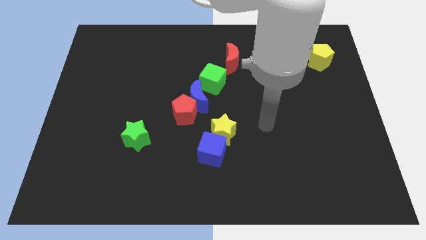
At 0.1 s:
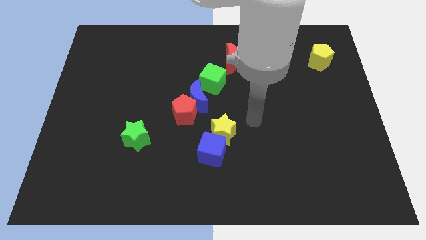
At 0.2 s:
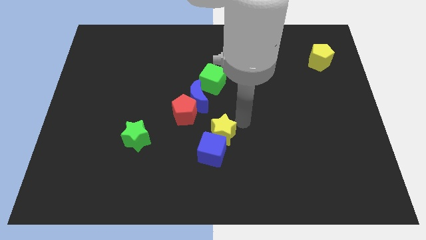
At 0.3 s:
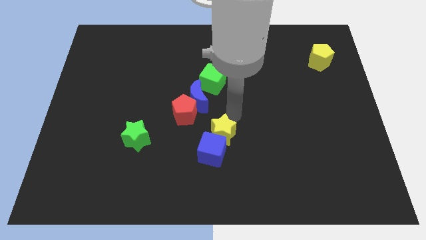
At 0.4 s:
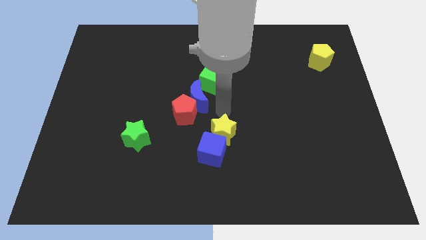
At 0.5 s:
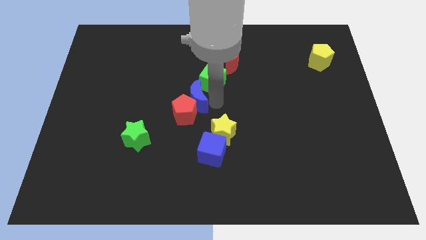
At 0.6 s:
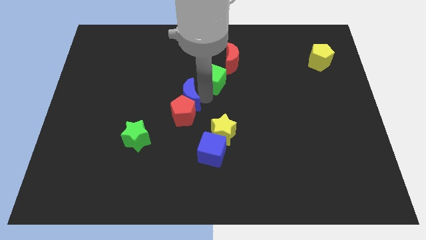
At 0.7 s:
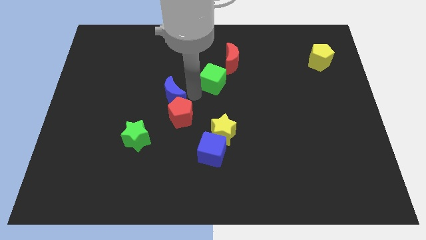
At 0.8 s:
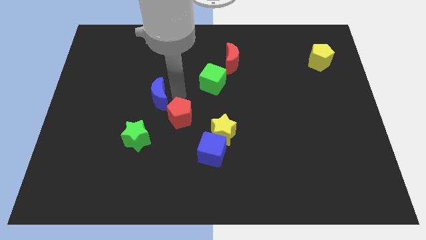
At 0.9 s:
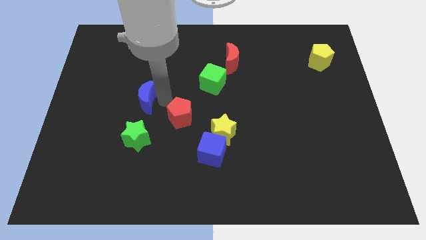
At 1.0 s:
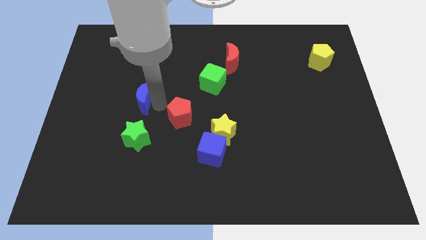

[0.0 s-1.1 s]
separate the red pentagon from the blue moon

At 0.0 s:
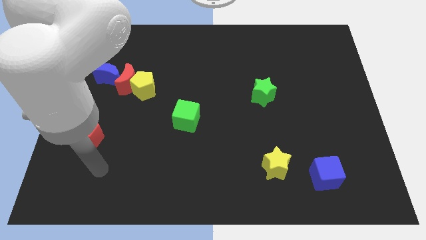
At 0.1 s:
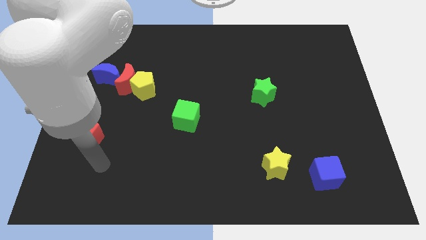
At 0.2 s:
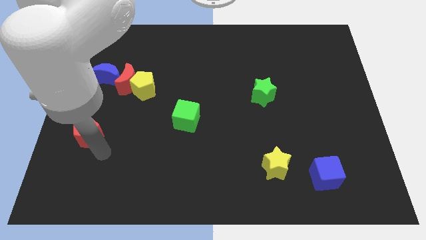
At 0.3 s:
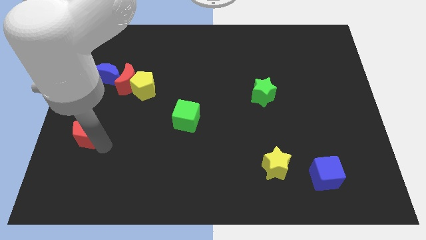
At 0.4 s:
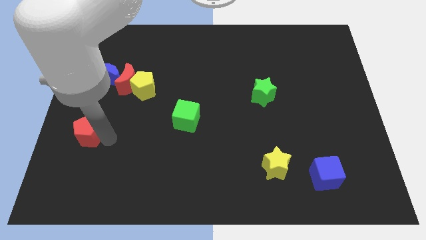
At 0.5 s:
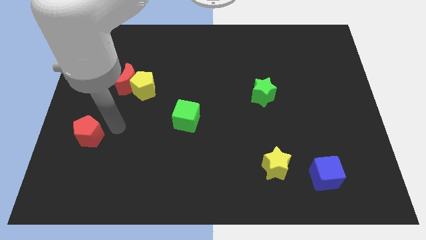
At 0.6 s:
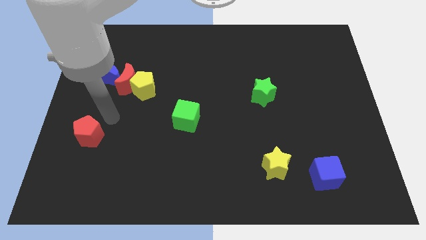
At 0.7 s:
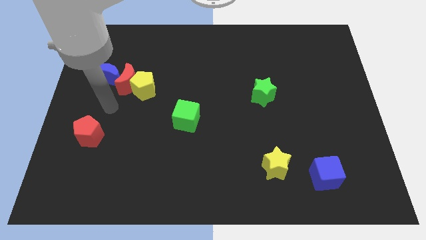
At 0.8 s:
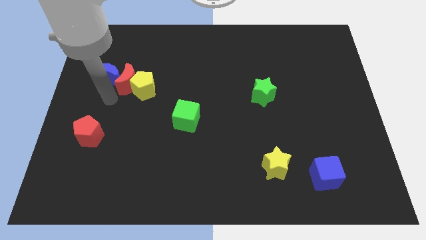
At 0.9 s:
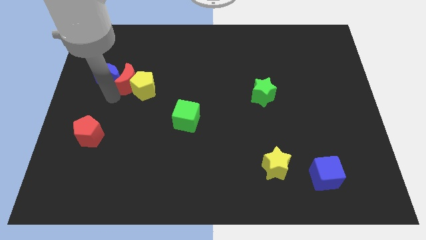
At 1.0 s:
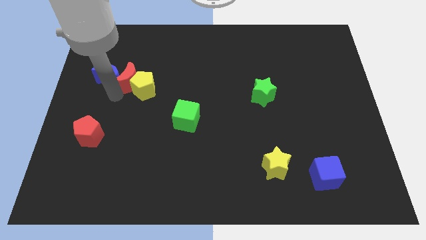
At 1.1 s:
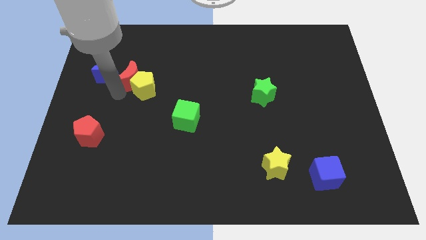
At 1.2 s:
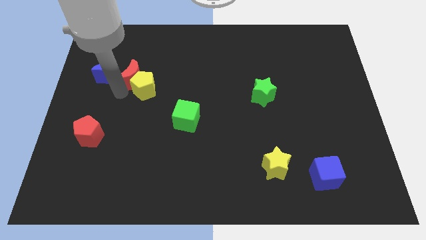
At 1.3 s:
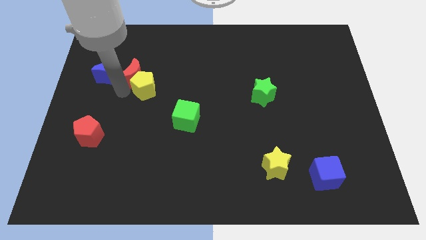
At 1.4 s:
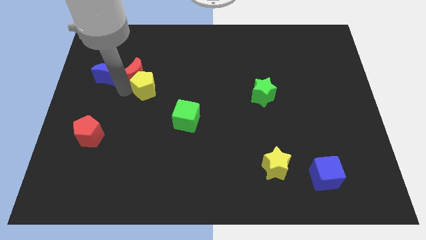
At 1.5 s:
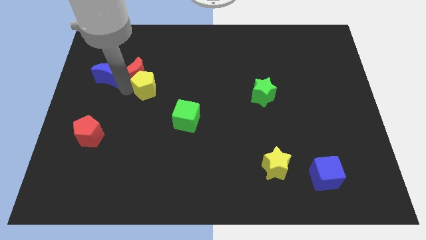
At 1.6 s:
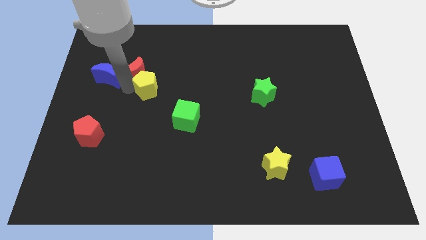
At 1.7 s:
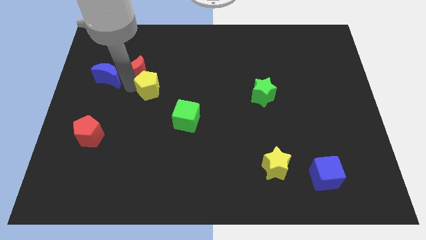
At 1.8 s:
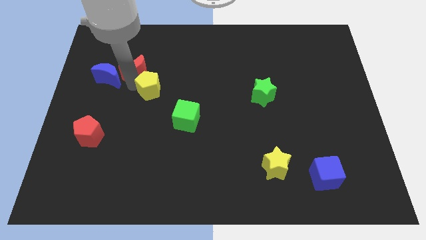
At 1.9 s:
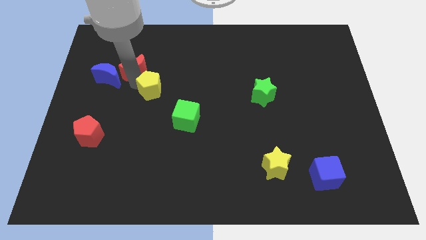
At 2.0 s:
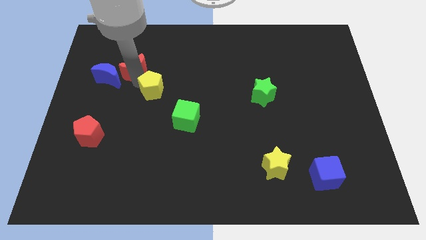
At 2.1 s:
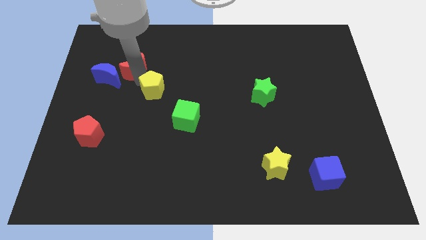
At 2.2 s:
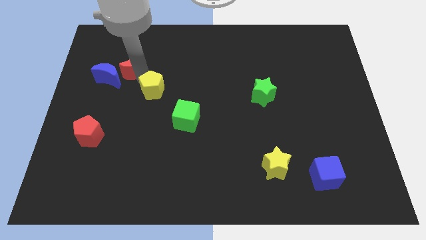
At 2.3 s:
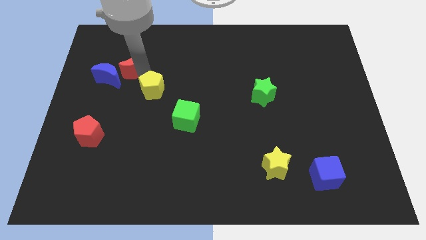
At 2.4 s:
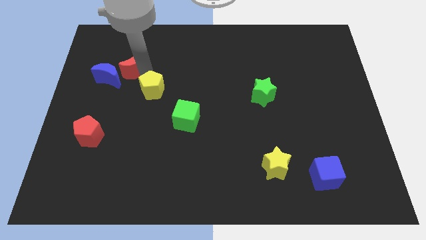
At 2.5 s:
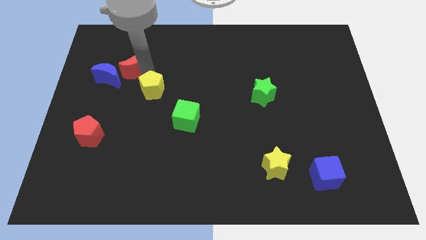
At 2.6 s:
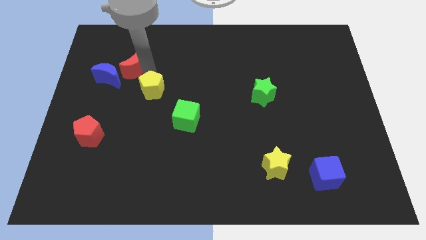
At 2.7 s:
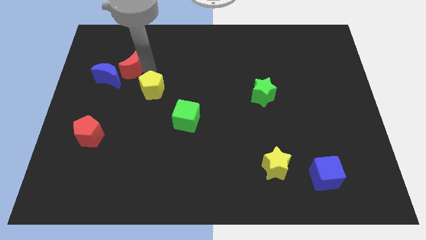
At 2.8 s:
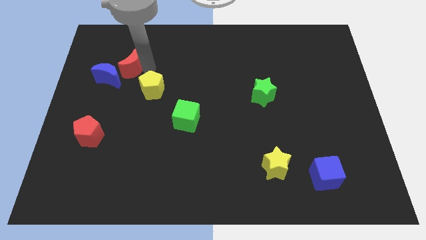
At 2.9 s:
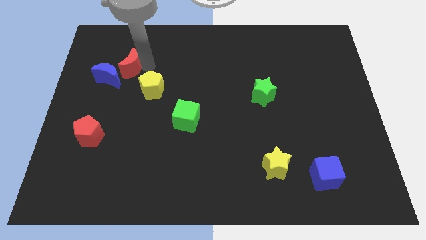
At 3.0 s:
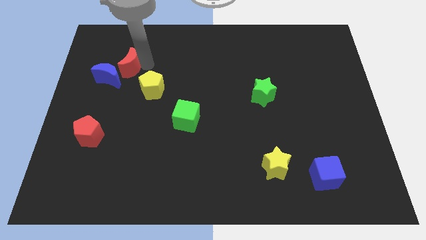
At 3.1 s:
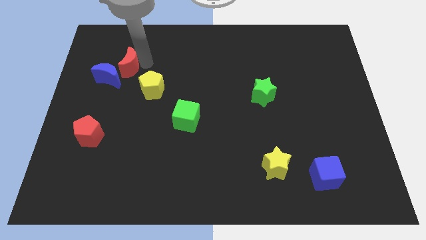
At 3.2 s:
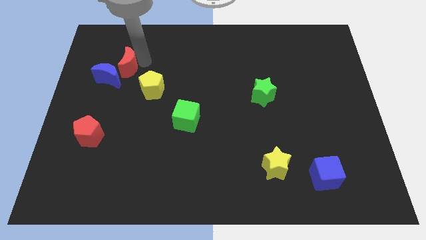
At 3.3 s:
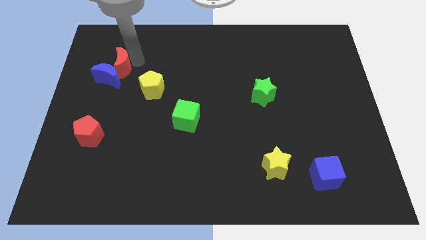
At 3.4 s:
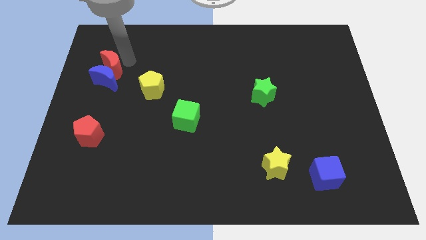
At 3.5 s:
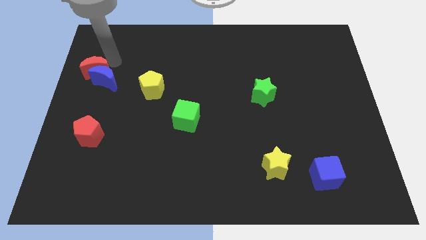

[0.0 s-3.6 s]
pull the red moon apart from the yellow pentagon and blue moon

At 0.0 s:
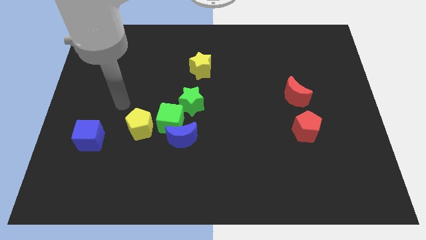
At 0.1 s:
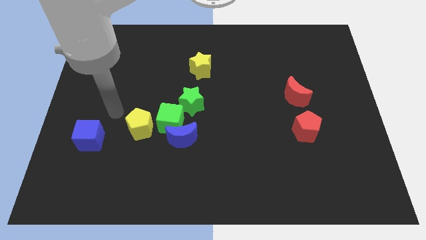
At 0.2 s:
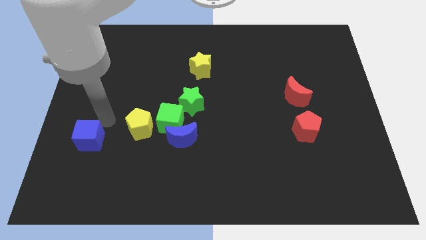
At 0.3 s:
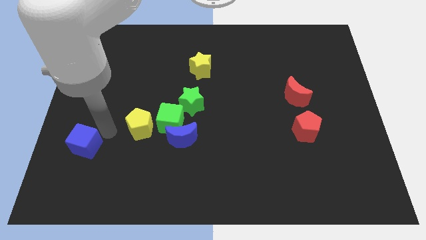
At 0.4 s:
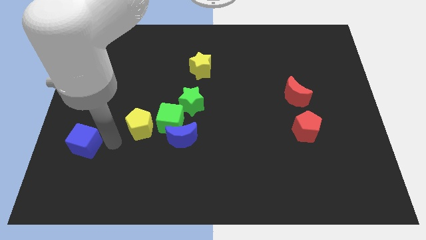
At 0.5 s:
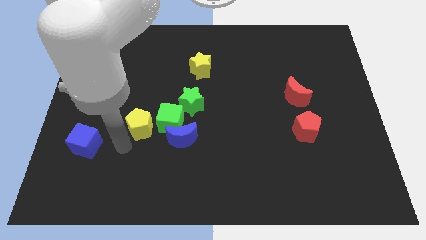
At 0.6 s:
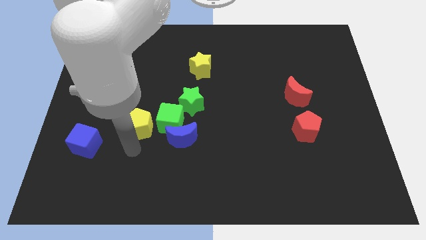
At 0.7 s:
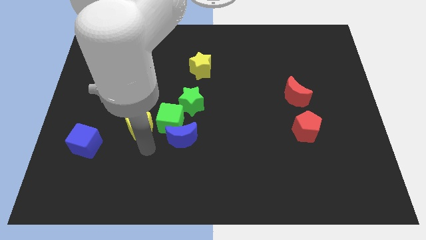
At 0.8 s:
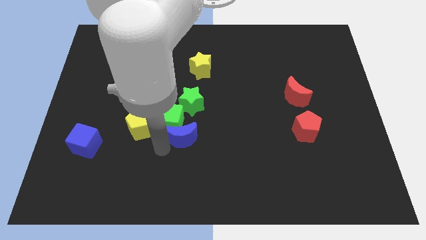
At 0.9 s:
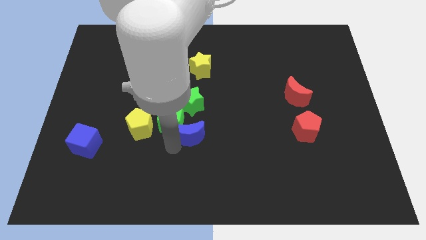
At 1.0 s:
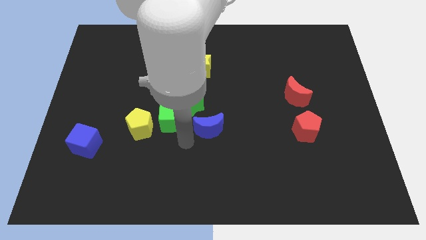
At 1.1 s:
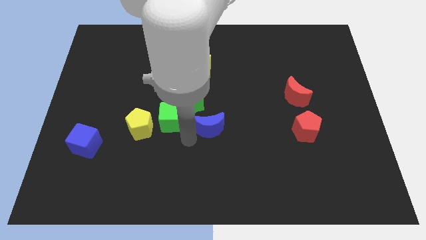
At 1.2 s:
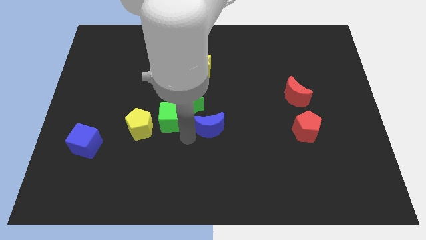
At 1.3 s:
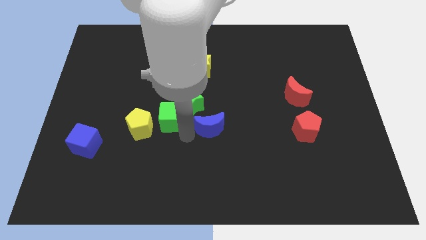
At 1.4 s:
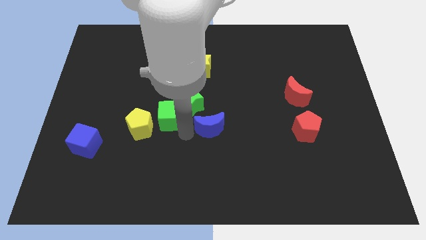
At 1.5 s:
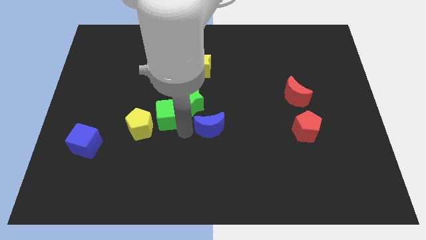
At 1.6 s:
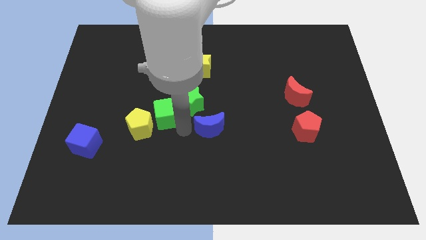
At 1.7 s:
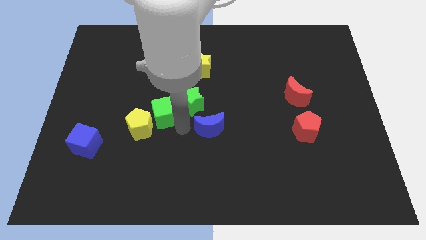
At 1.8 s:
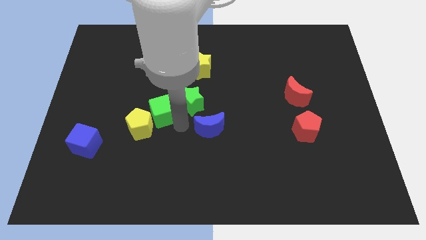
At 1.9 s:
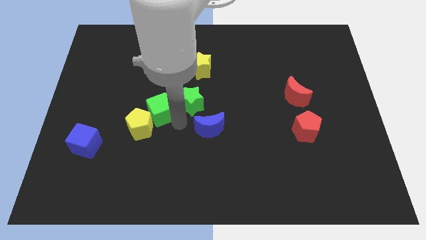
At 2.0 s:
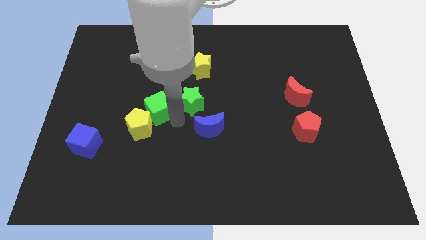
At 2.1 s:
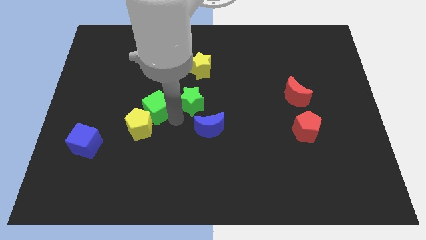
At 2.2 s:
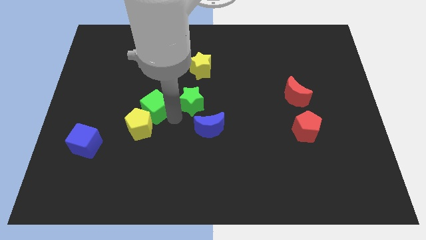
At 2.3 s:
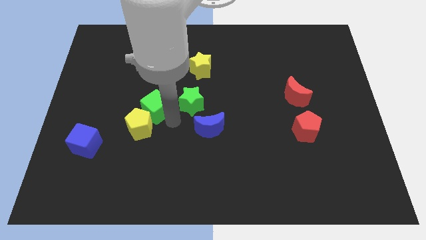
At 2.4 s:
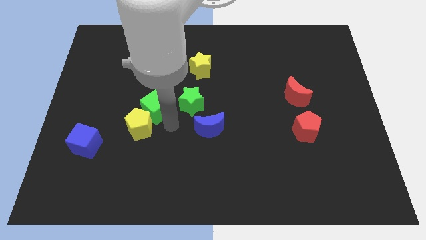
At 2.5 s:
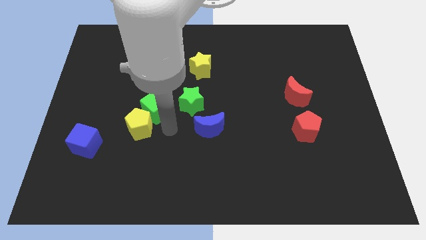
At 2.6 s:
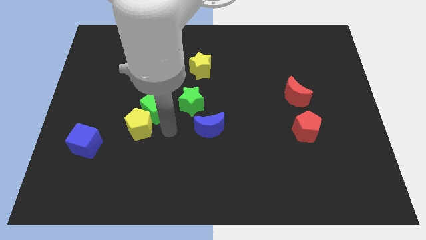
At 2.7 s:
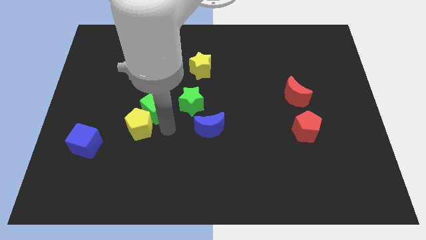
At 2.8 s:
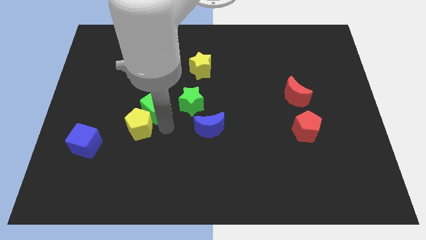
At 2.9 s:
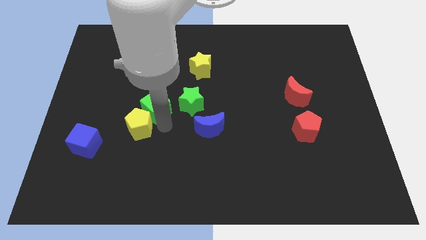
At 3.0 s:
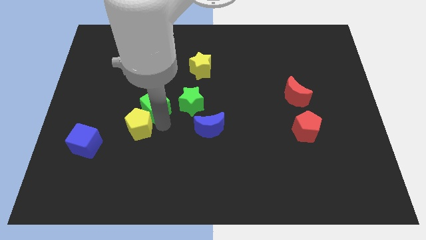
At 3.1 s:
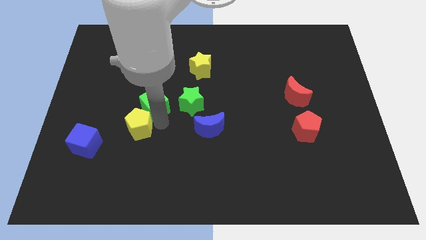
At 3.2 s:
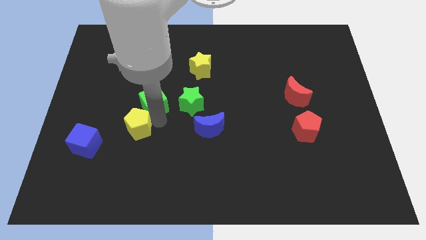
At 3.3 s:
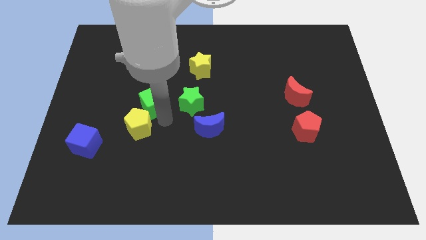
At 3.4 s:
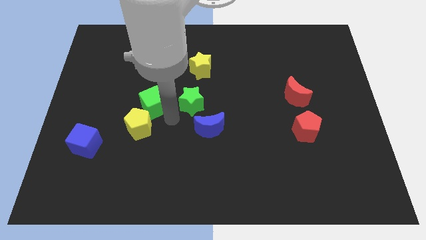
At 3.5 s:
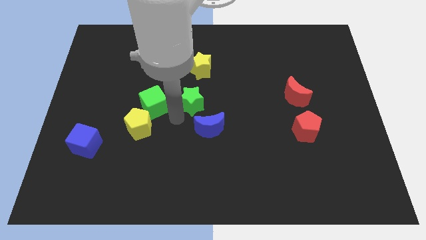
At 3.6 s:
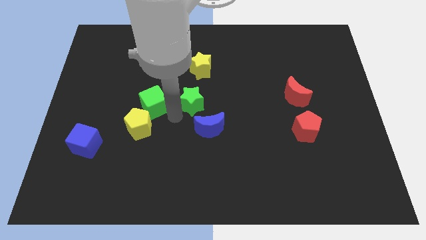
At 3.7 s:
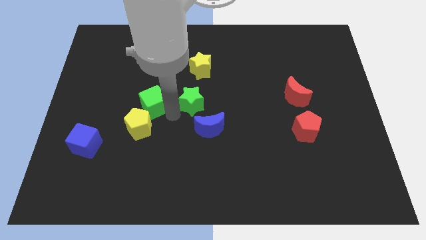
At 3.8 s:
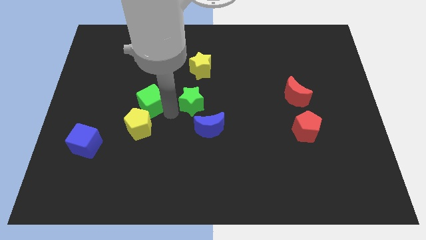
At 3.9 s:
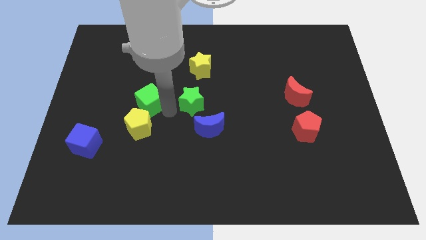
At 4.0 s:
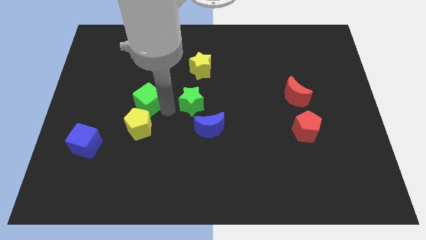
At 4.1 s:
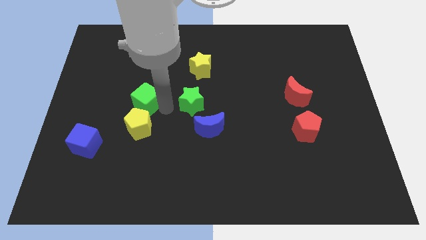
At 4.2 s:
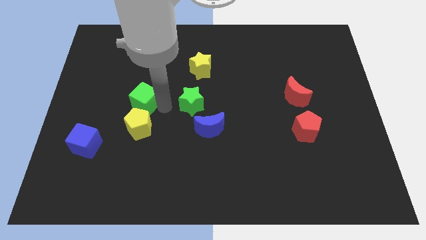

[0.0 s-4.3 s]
move the green cube away from the blue moon, yellow pentagon, and green star

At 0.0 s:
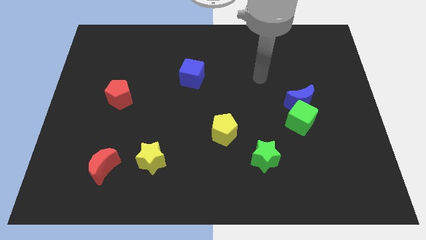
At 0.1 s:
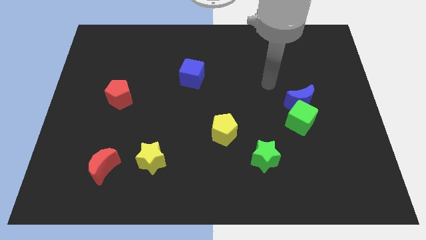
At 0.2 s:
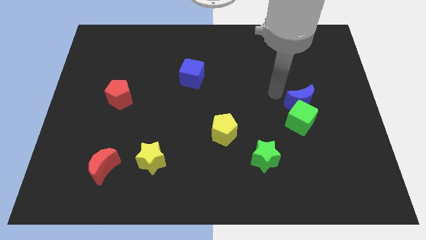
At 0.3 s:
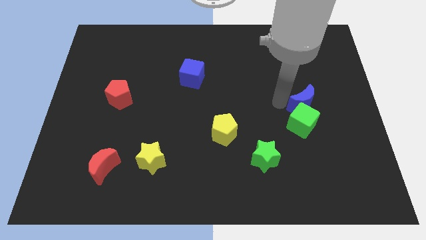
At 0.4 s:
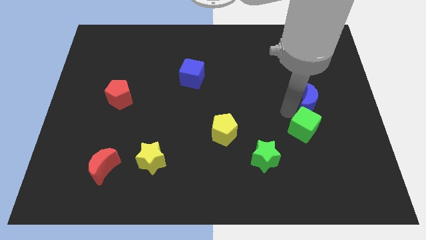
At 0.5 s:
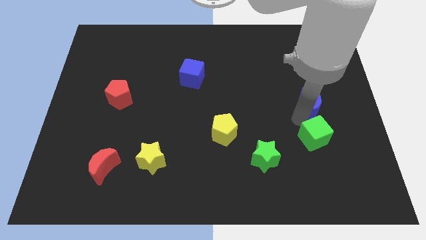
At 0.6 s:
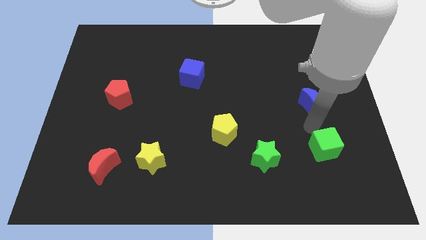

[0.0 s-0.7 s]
separate the blue moon from the green cube
